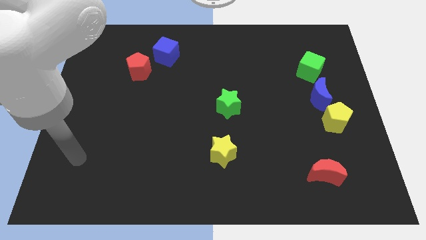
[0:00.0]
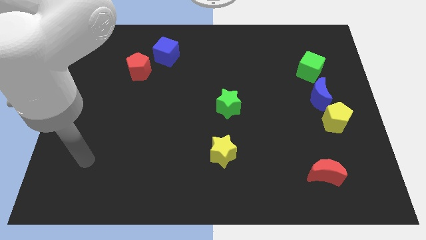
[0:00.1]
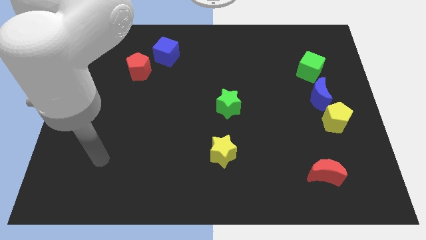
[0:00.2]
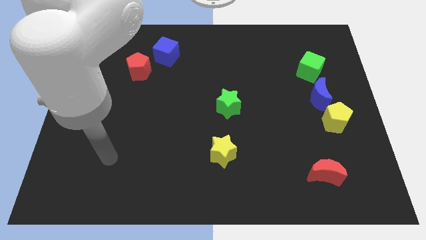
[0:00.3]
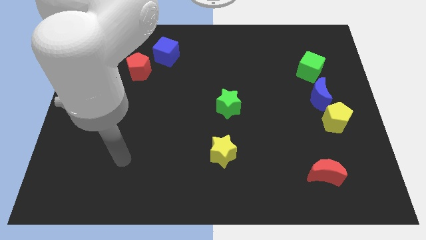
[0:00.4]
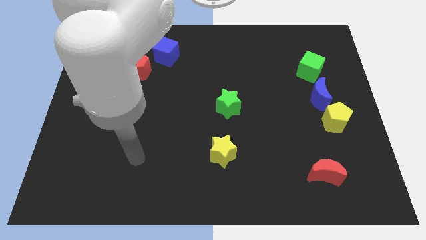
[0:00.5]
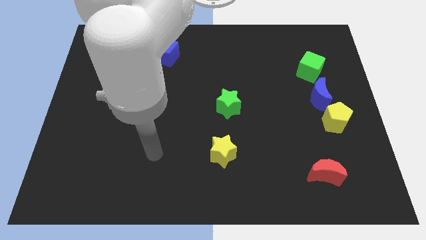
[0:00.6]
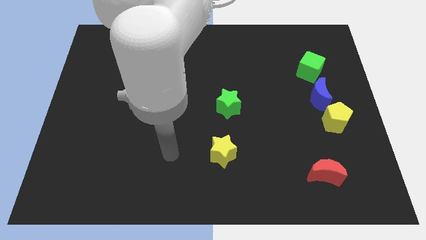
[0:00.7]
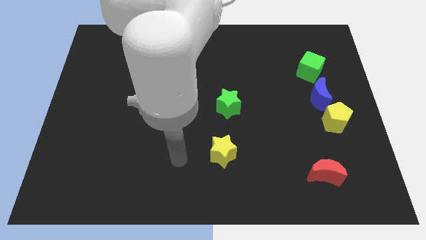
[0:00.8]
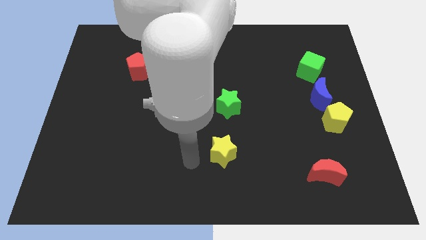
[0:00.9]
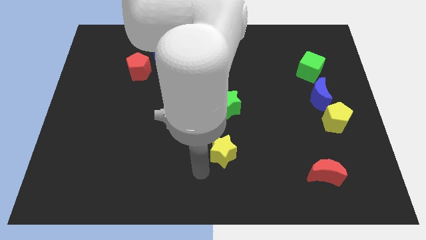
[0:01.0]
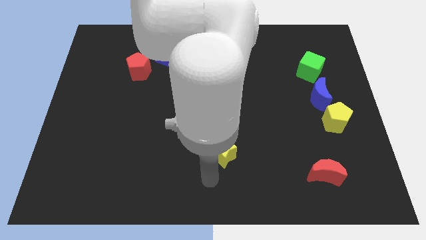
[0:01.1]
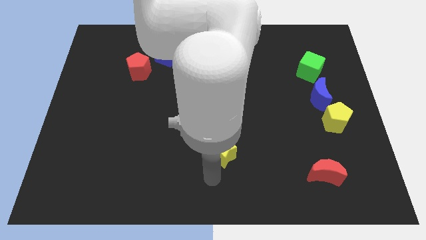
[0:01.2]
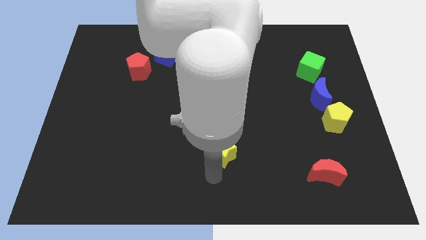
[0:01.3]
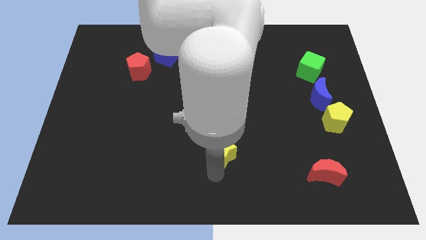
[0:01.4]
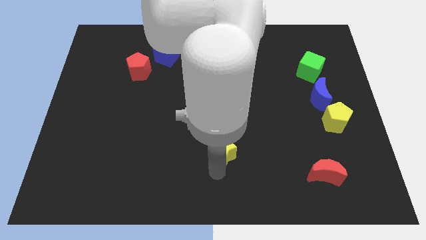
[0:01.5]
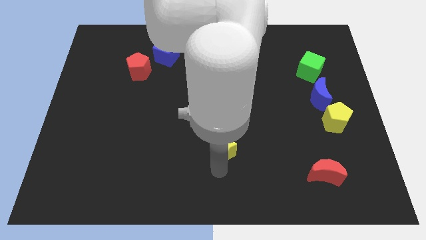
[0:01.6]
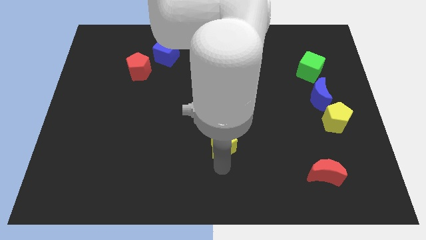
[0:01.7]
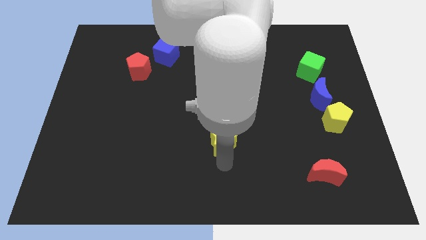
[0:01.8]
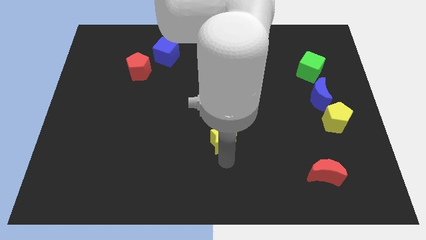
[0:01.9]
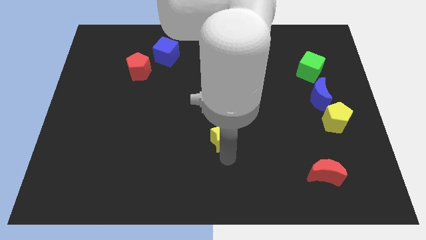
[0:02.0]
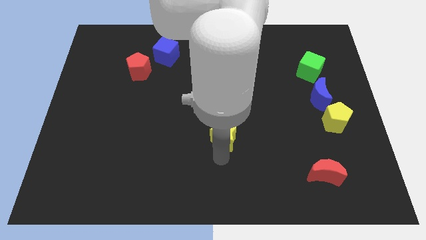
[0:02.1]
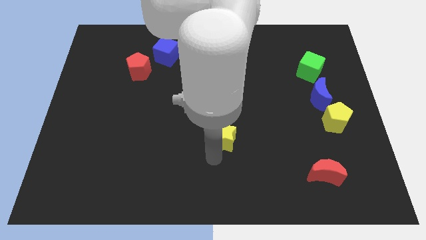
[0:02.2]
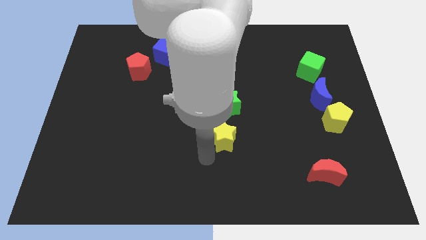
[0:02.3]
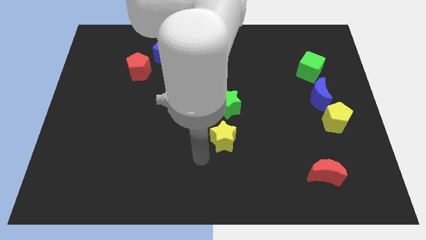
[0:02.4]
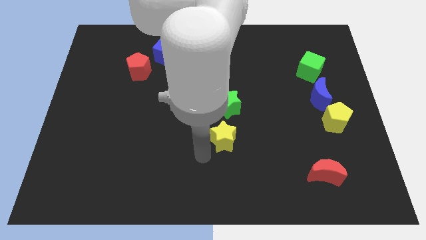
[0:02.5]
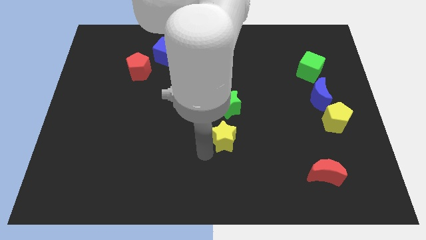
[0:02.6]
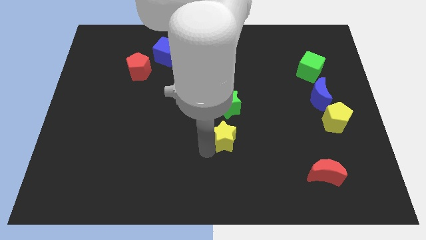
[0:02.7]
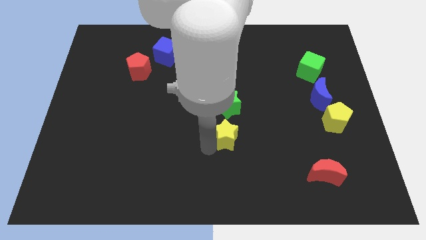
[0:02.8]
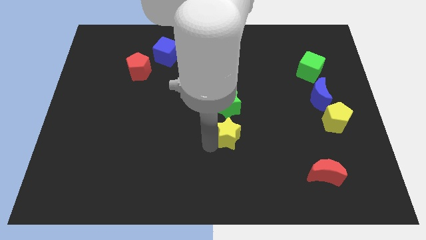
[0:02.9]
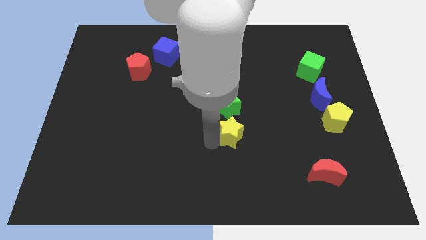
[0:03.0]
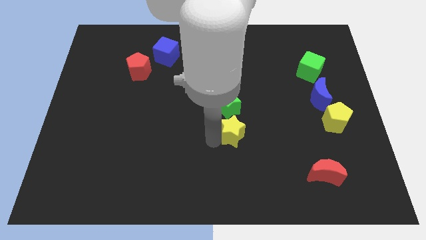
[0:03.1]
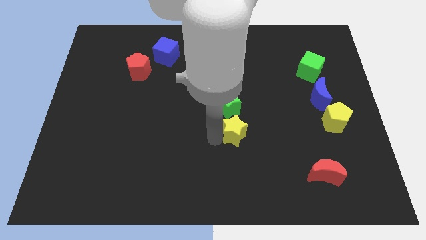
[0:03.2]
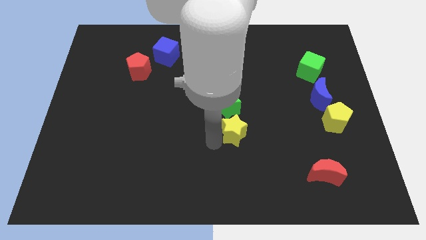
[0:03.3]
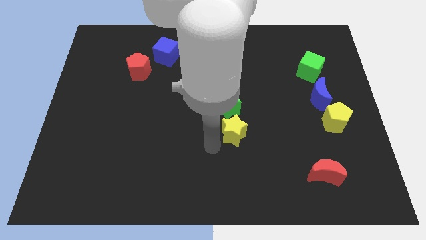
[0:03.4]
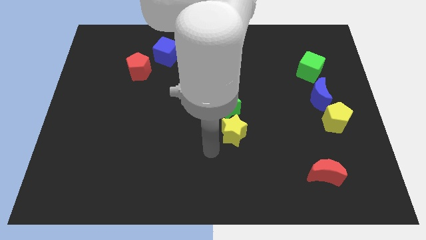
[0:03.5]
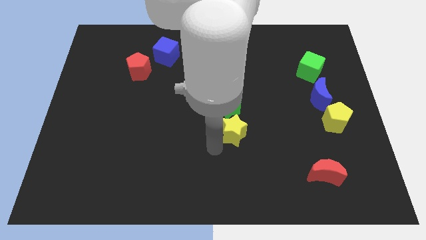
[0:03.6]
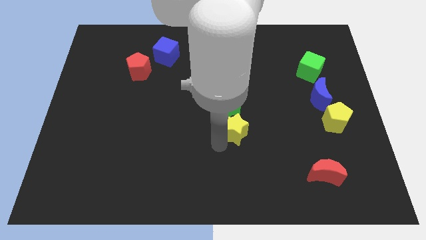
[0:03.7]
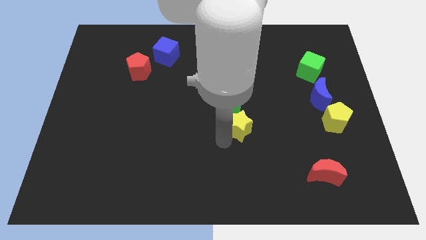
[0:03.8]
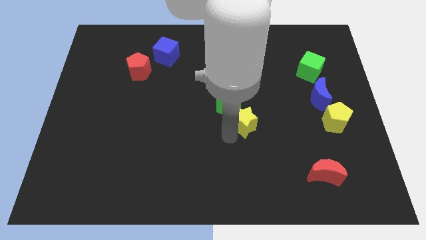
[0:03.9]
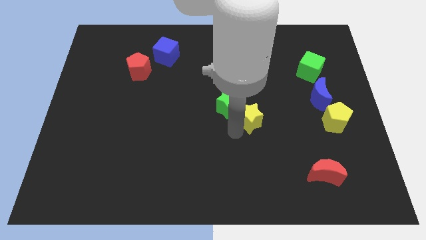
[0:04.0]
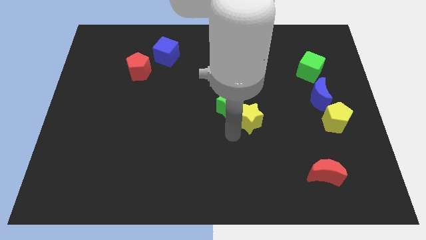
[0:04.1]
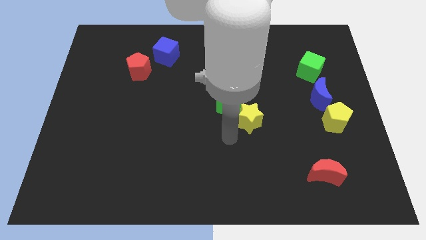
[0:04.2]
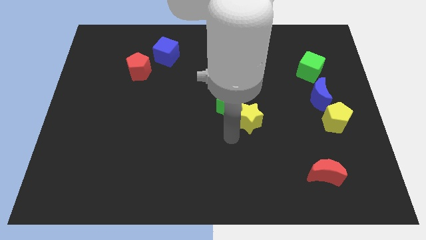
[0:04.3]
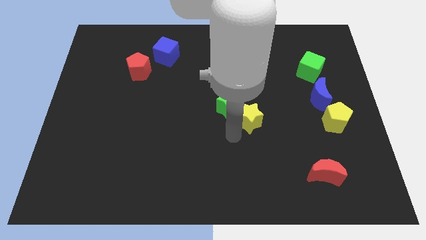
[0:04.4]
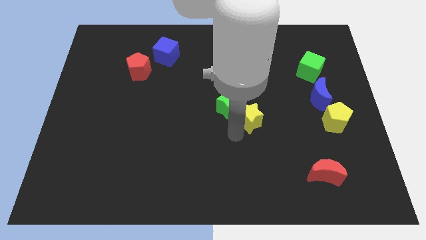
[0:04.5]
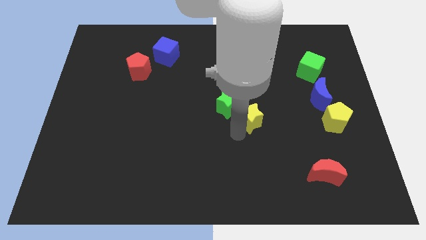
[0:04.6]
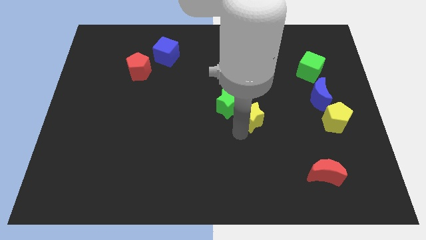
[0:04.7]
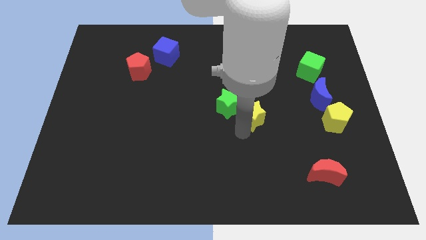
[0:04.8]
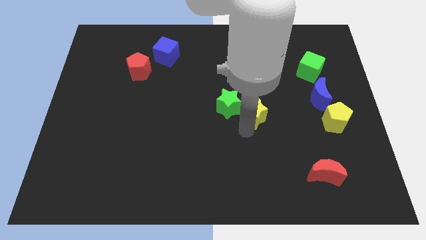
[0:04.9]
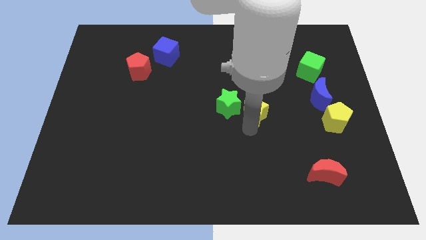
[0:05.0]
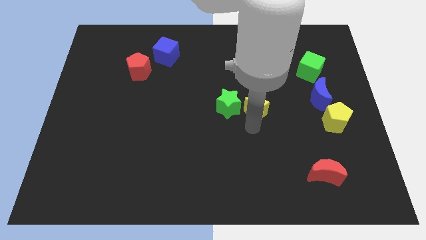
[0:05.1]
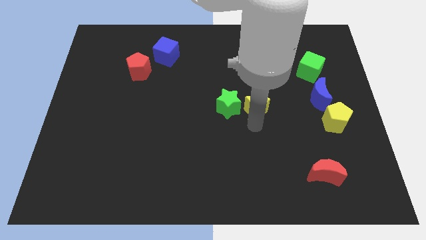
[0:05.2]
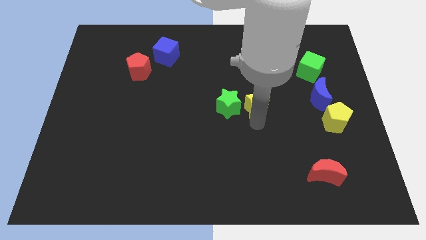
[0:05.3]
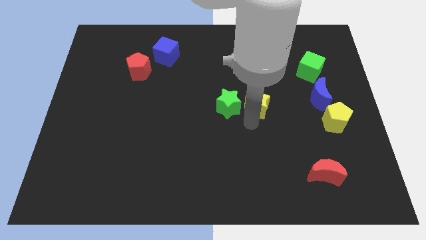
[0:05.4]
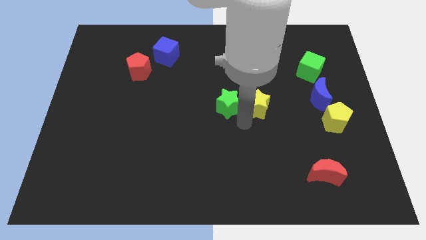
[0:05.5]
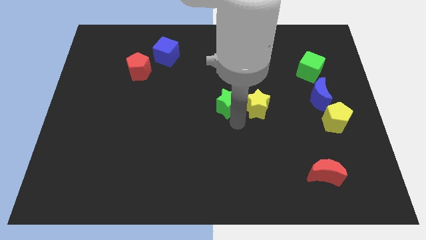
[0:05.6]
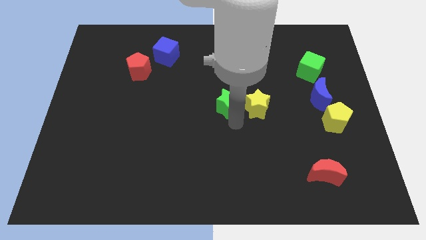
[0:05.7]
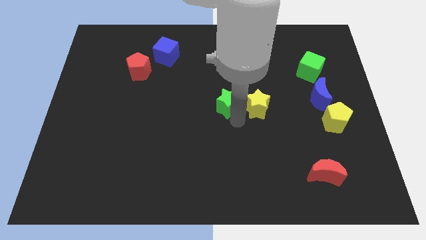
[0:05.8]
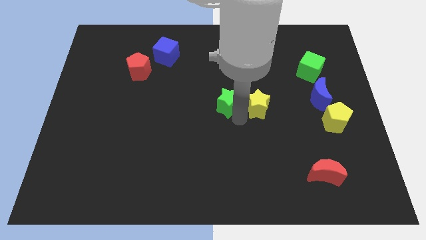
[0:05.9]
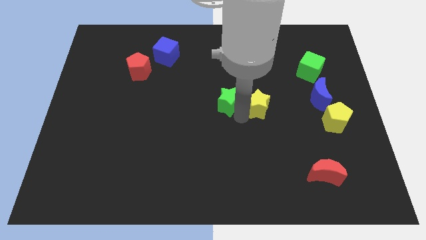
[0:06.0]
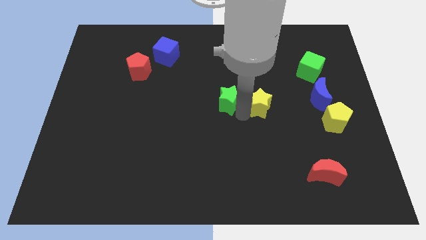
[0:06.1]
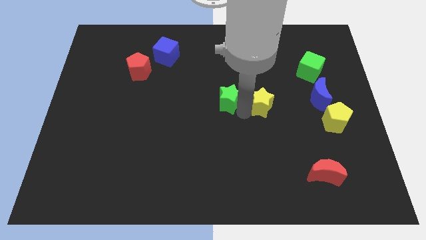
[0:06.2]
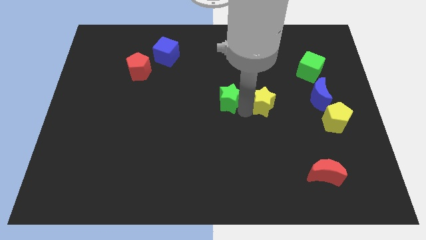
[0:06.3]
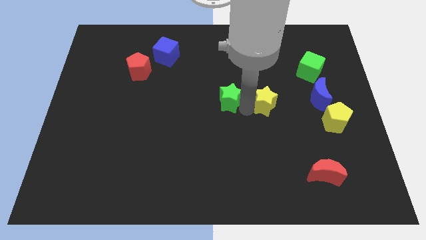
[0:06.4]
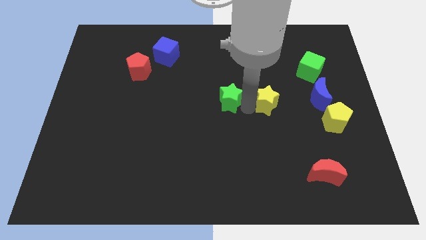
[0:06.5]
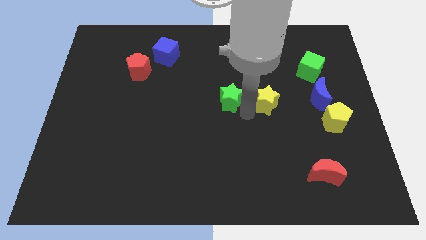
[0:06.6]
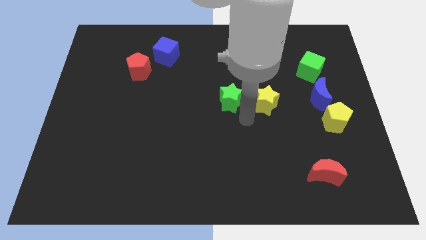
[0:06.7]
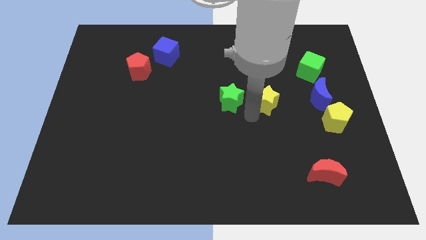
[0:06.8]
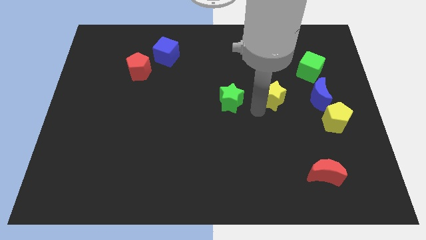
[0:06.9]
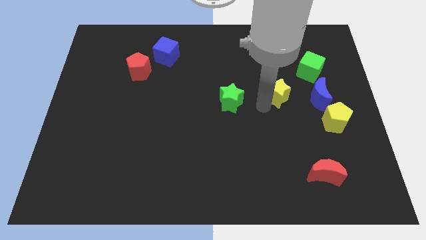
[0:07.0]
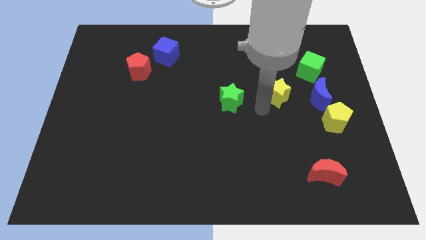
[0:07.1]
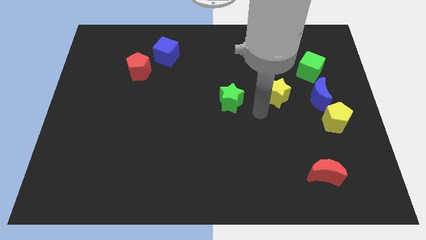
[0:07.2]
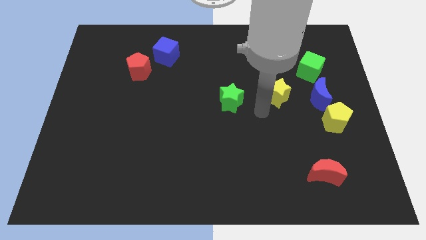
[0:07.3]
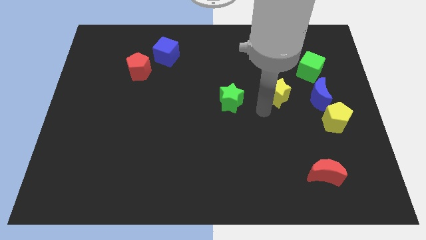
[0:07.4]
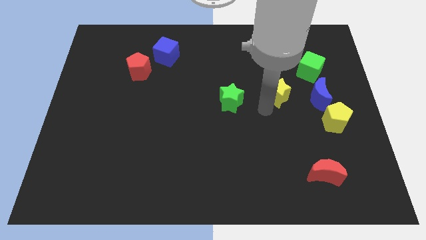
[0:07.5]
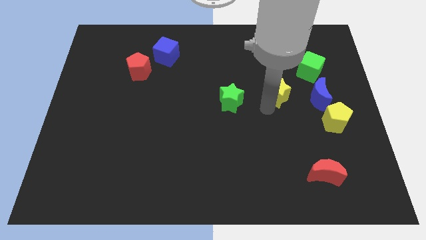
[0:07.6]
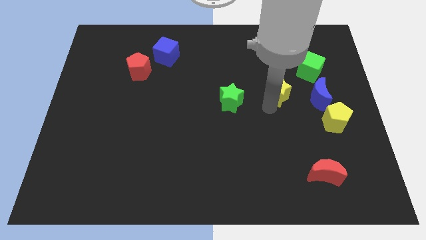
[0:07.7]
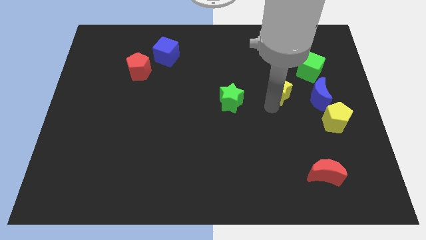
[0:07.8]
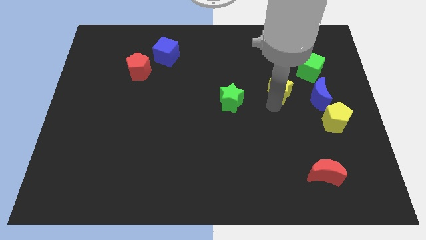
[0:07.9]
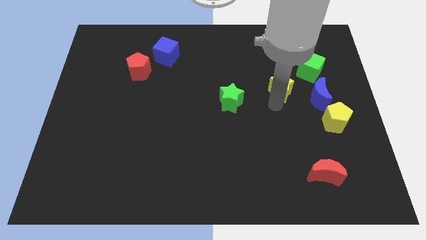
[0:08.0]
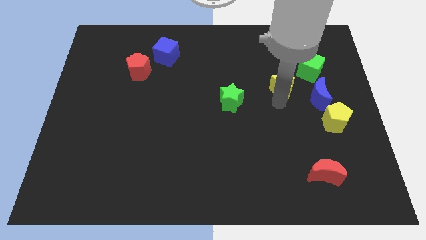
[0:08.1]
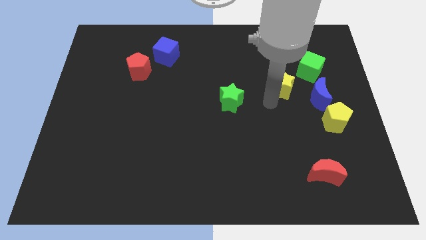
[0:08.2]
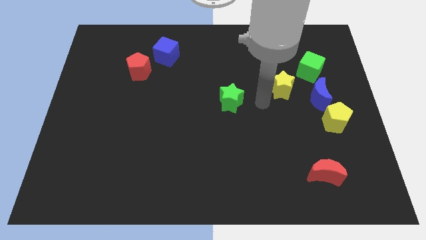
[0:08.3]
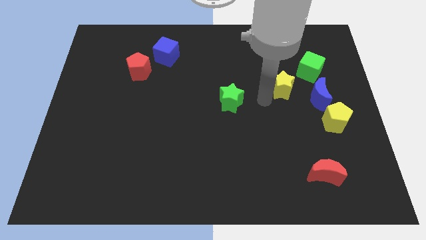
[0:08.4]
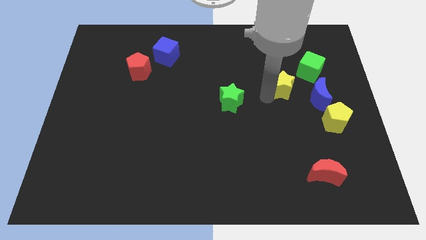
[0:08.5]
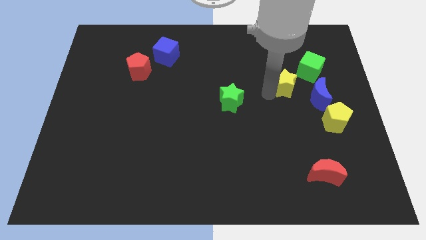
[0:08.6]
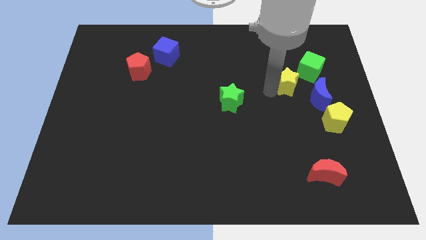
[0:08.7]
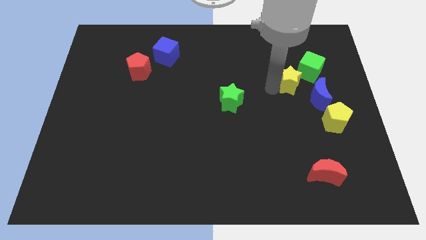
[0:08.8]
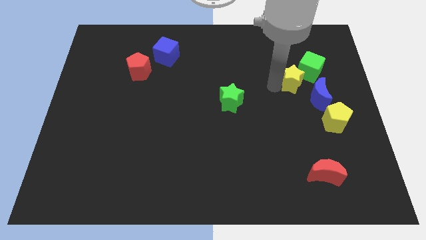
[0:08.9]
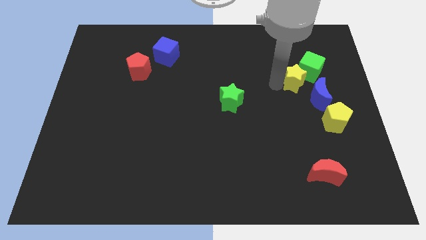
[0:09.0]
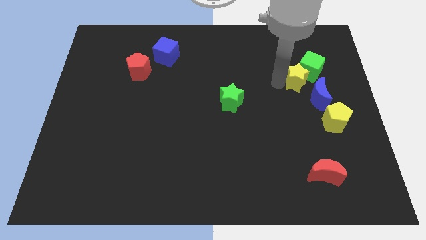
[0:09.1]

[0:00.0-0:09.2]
put the yellow star next to the green cube
